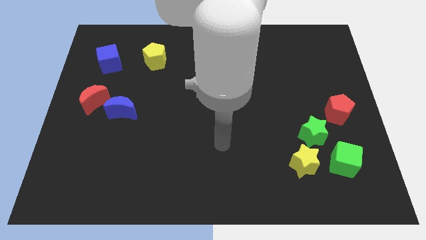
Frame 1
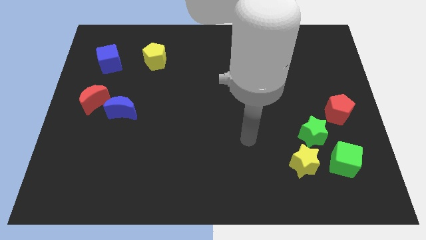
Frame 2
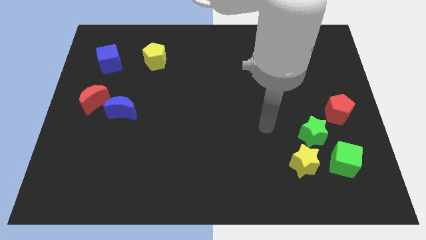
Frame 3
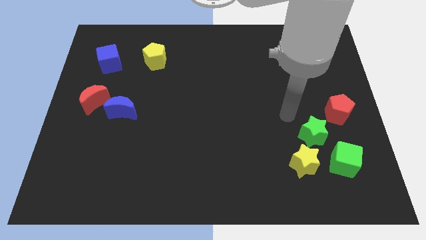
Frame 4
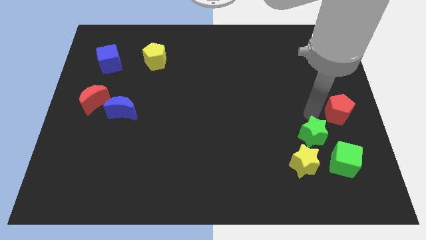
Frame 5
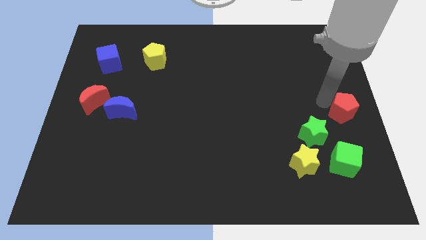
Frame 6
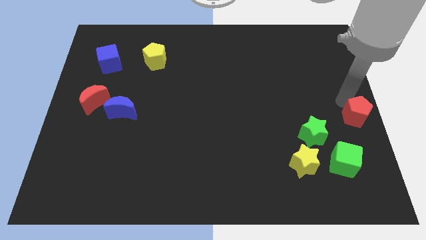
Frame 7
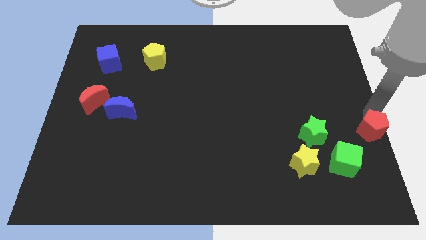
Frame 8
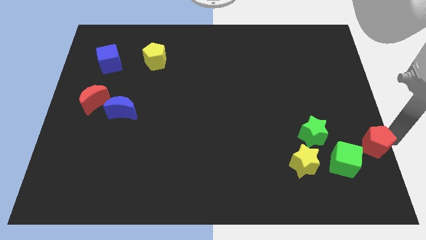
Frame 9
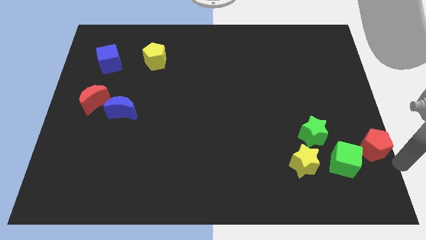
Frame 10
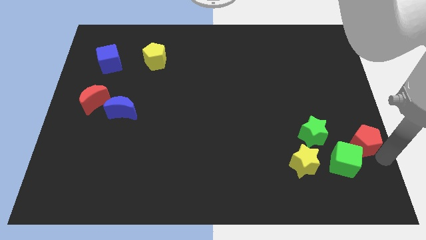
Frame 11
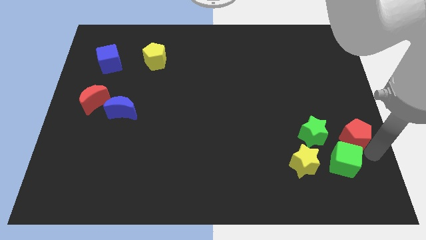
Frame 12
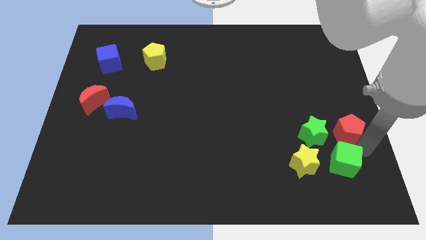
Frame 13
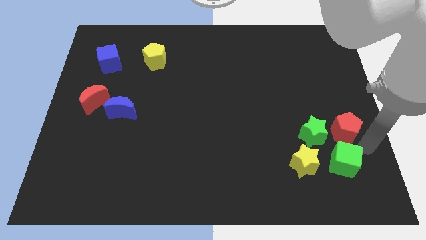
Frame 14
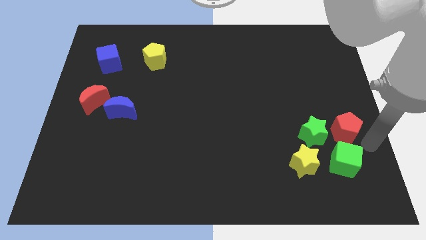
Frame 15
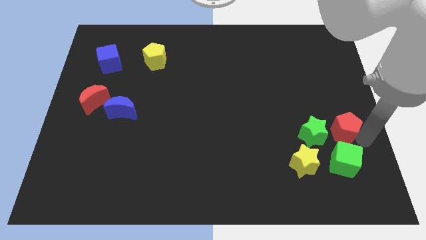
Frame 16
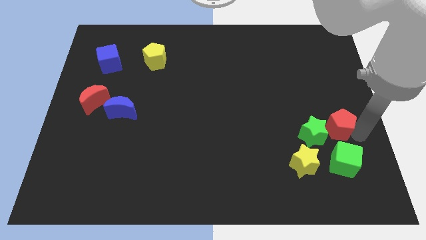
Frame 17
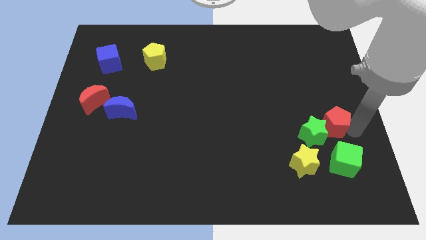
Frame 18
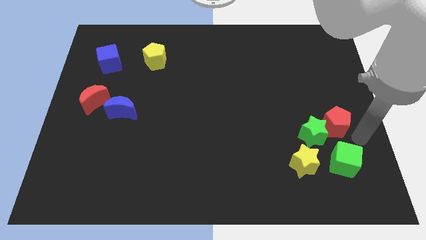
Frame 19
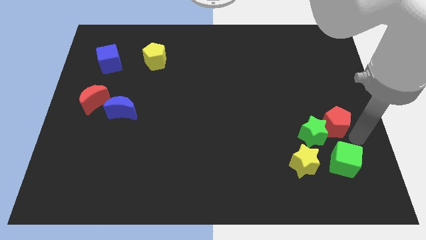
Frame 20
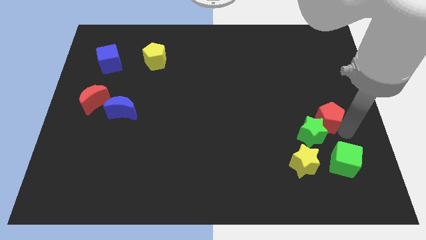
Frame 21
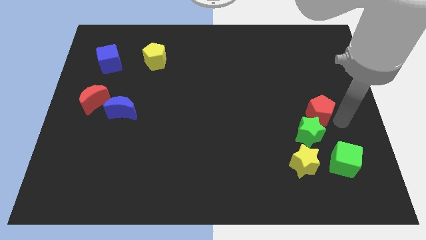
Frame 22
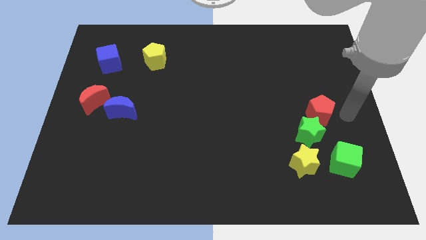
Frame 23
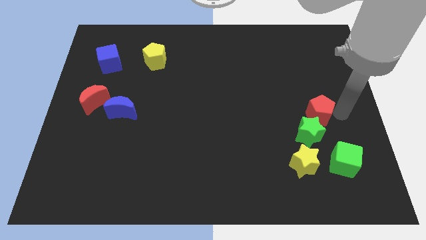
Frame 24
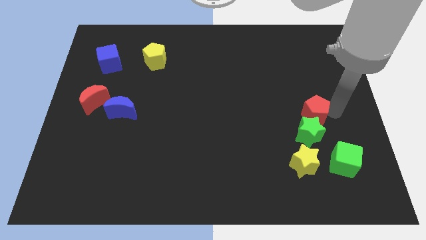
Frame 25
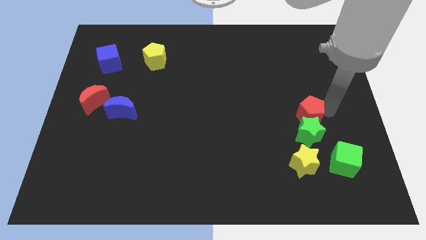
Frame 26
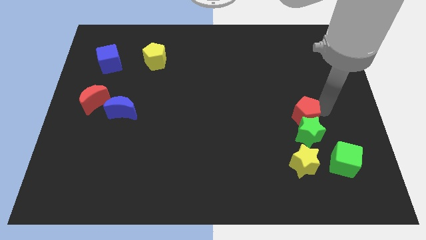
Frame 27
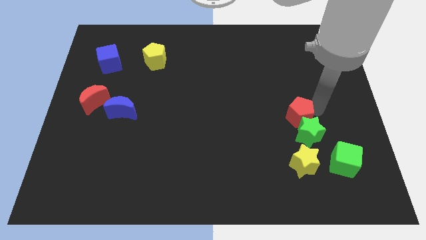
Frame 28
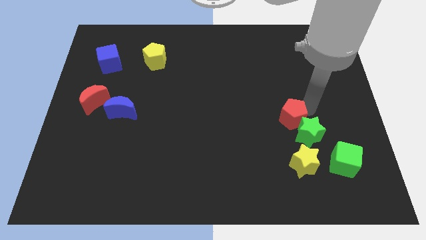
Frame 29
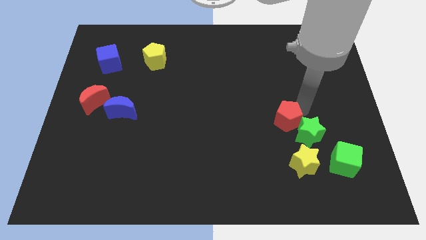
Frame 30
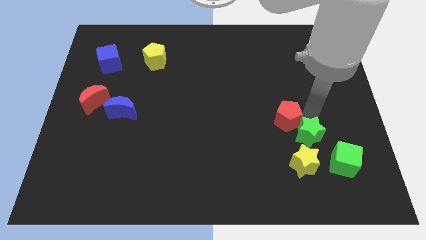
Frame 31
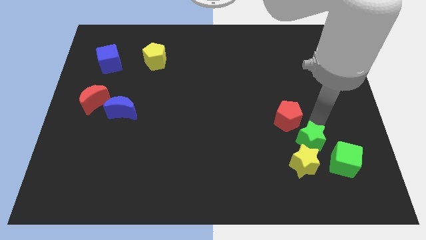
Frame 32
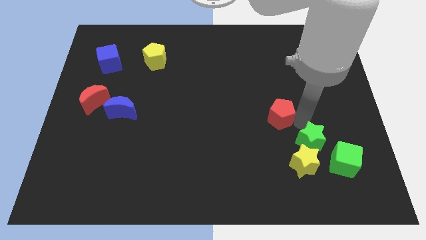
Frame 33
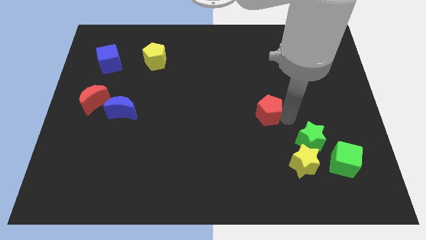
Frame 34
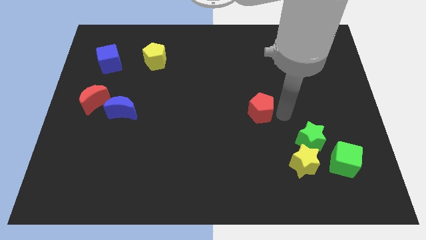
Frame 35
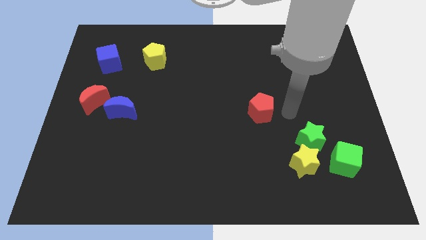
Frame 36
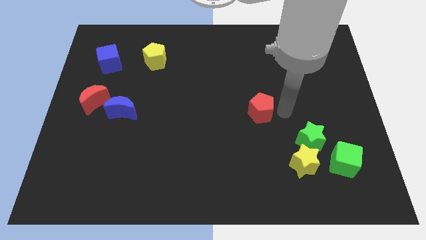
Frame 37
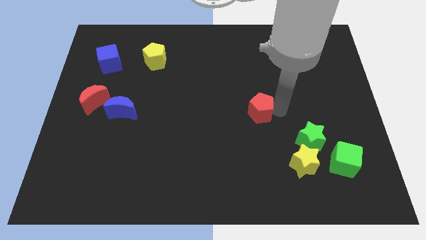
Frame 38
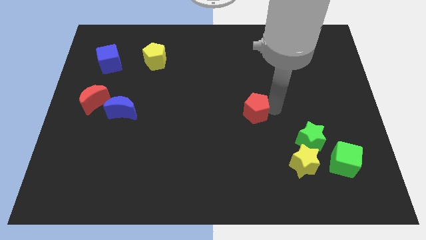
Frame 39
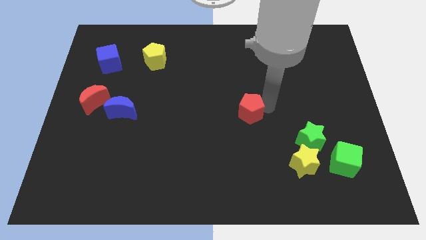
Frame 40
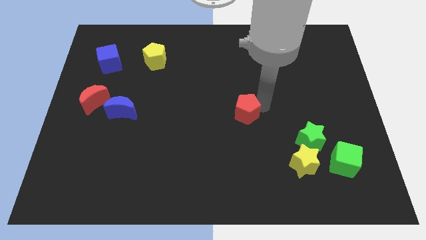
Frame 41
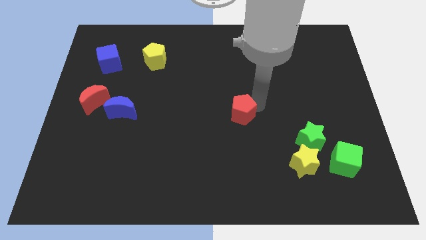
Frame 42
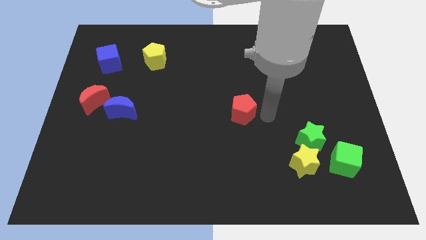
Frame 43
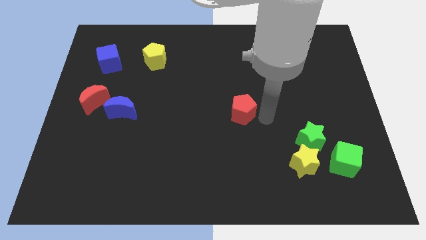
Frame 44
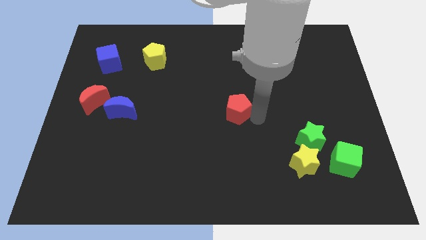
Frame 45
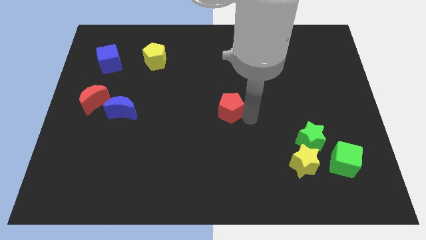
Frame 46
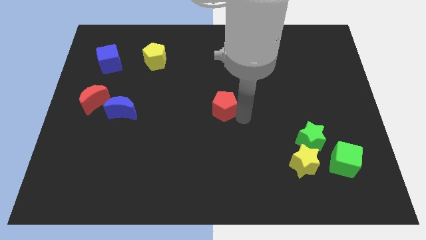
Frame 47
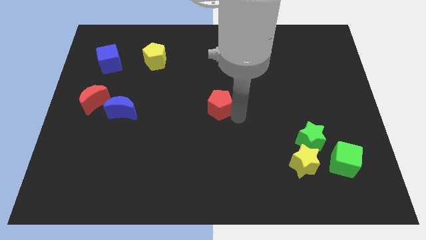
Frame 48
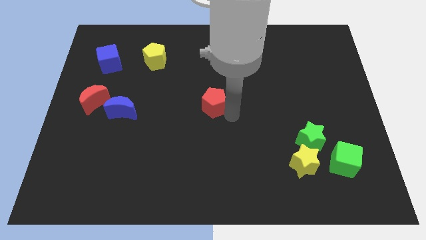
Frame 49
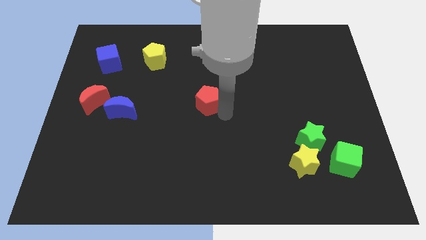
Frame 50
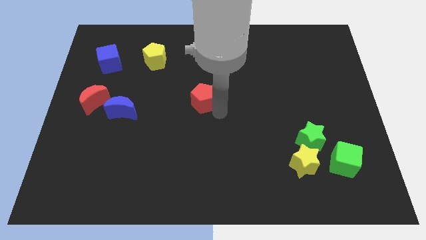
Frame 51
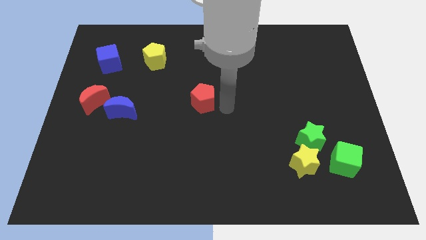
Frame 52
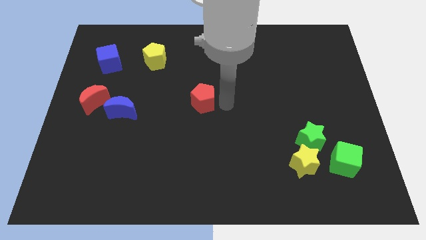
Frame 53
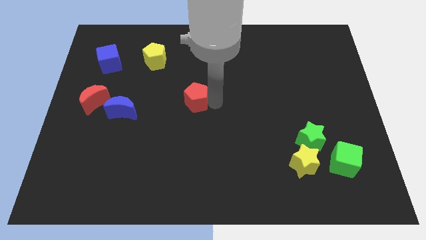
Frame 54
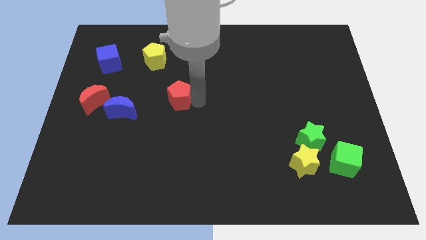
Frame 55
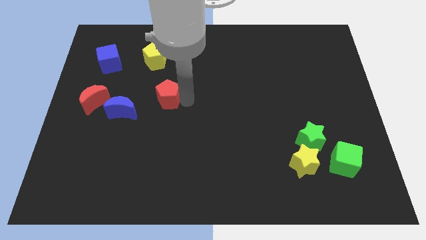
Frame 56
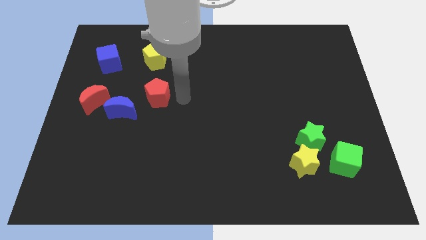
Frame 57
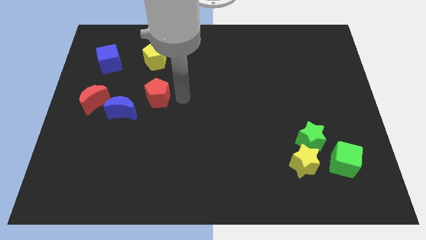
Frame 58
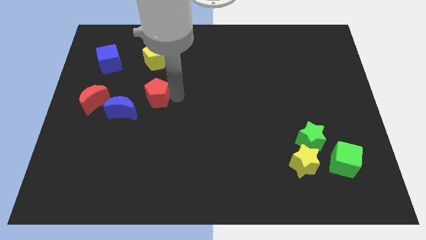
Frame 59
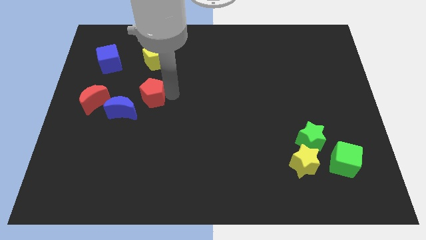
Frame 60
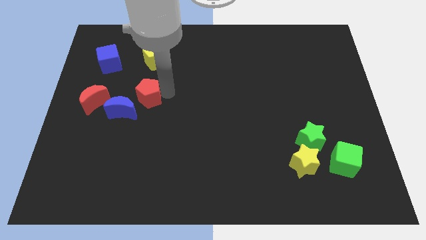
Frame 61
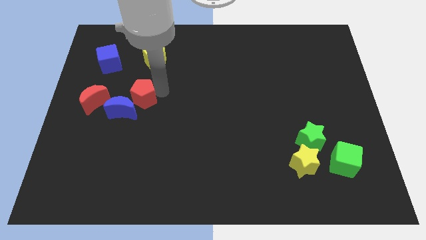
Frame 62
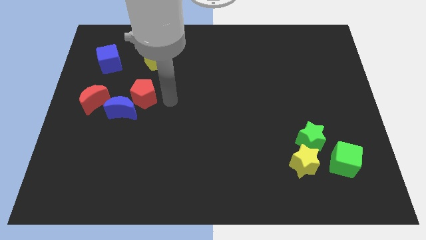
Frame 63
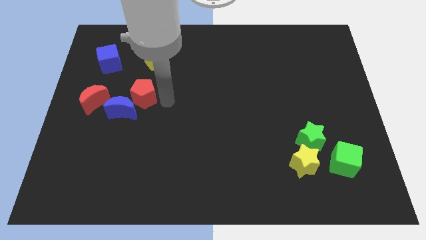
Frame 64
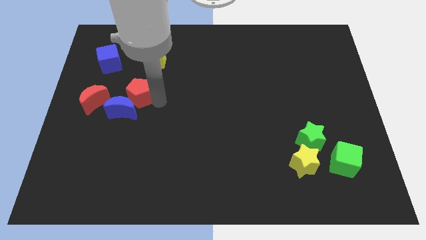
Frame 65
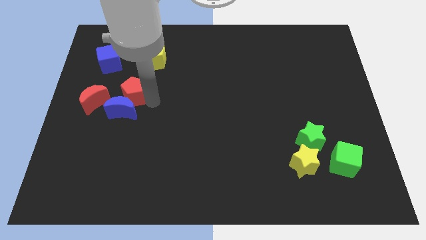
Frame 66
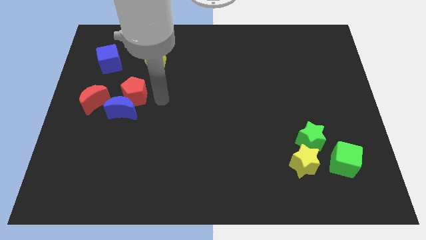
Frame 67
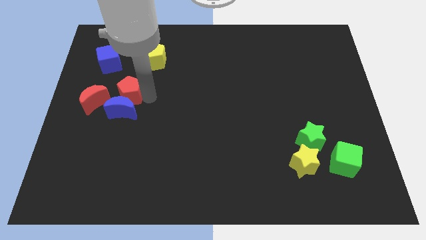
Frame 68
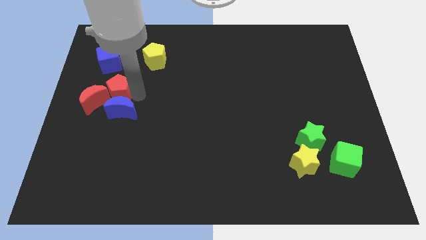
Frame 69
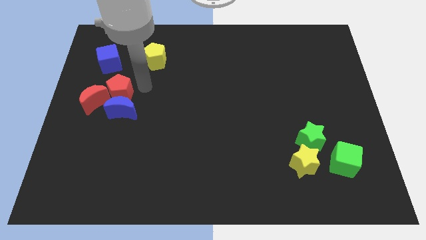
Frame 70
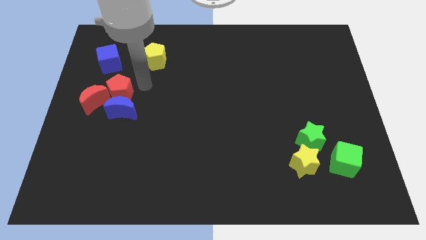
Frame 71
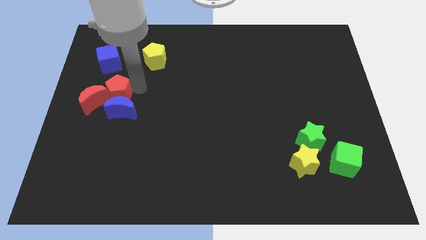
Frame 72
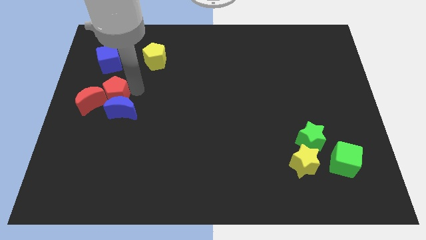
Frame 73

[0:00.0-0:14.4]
put the red pentagon close to the red moon
